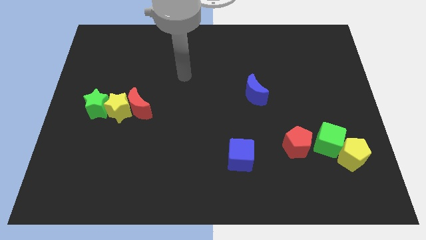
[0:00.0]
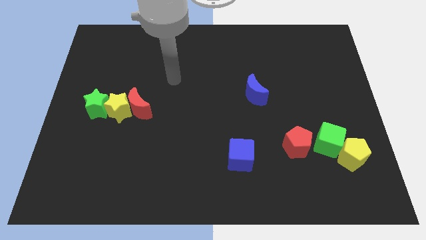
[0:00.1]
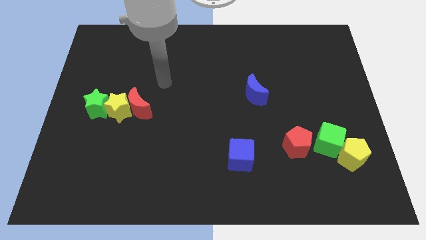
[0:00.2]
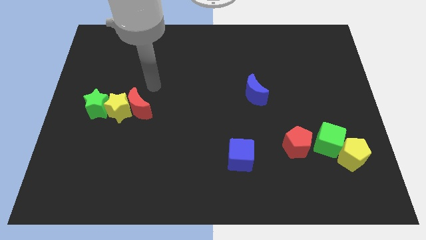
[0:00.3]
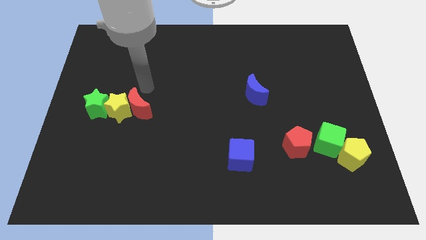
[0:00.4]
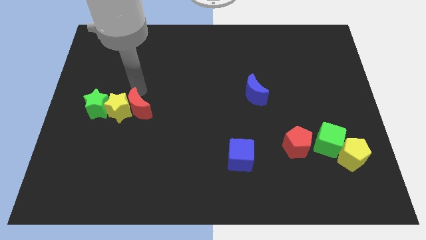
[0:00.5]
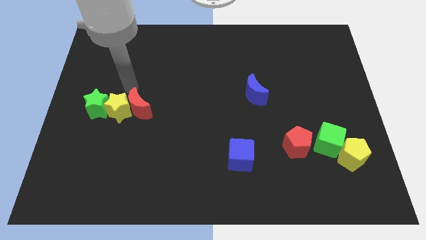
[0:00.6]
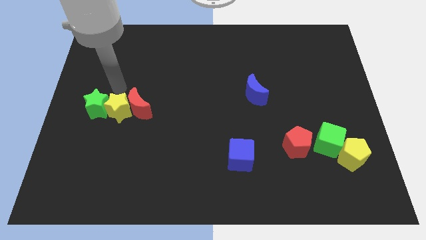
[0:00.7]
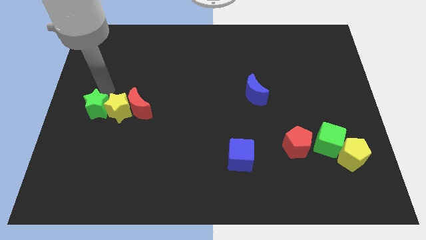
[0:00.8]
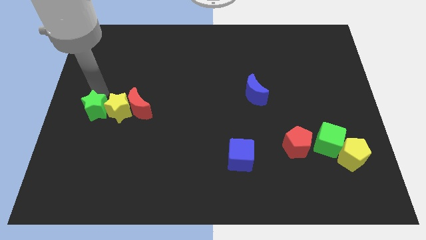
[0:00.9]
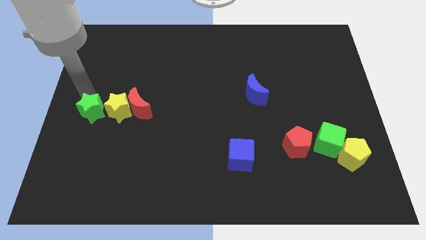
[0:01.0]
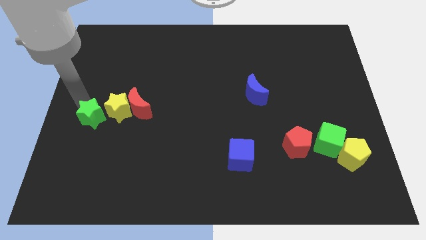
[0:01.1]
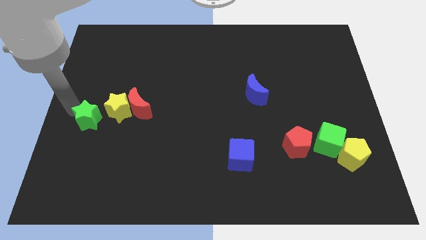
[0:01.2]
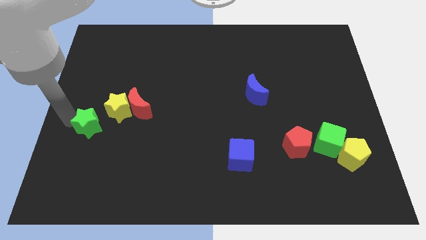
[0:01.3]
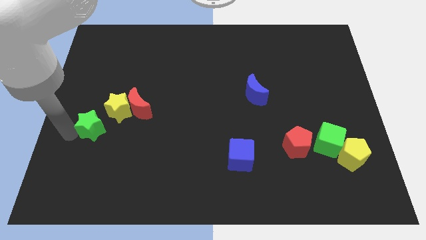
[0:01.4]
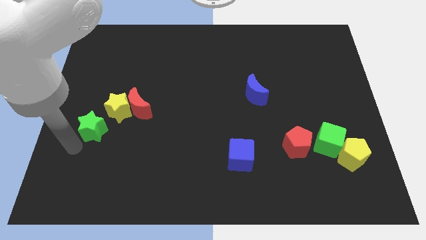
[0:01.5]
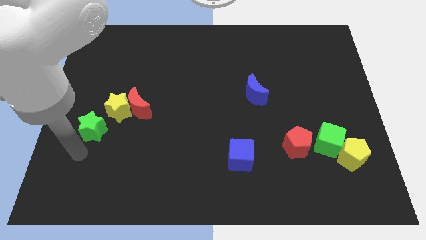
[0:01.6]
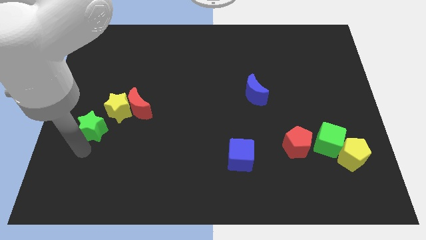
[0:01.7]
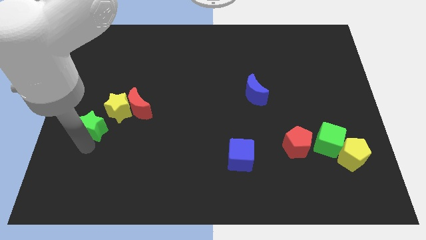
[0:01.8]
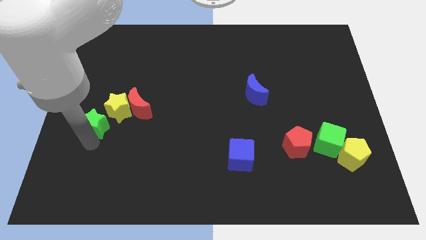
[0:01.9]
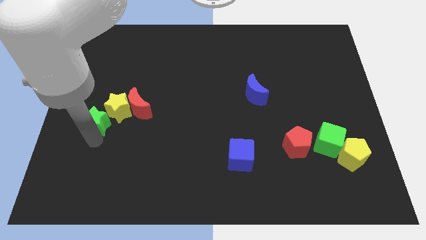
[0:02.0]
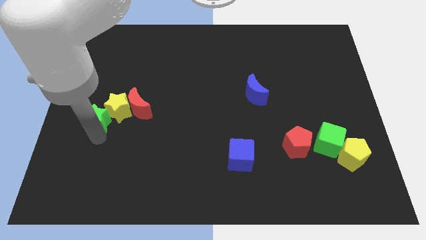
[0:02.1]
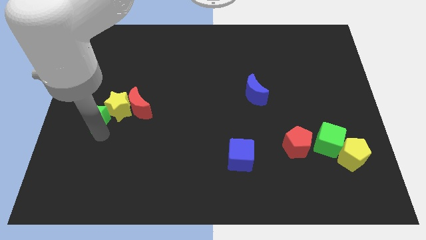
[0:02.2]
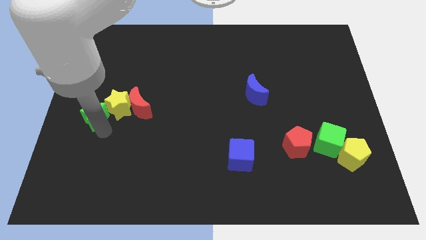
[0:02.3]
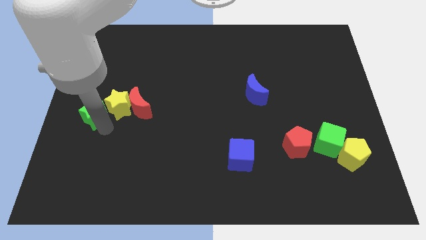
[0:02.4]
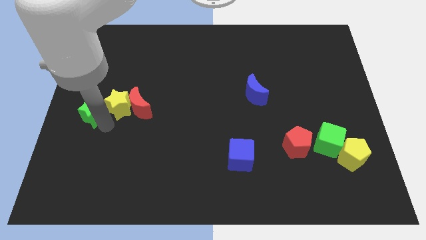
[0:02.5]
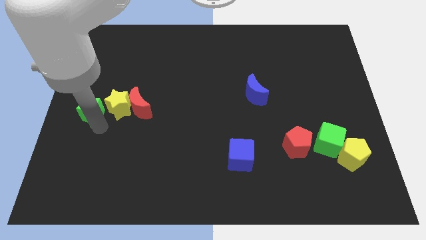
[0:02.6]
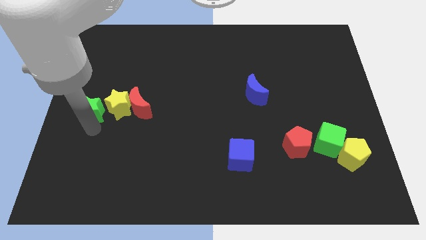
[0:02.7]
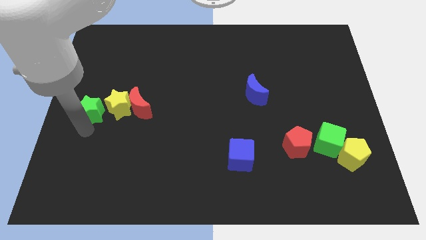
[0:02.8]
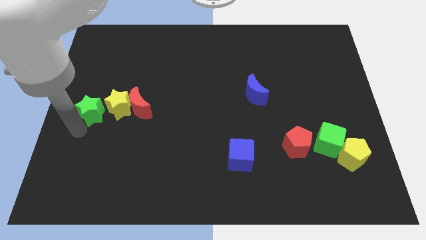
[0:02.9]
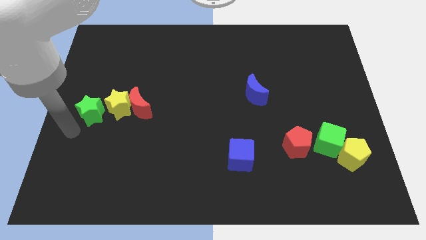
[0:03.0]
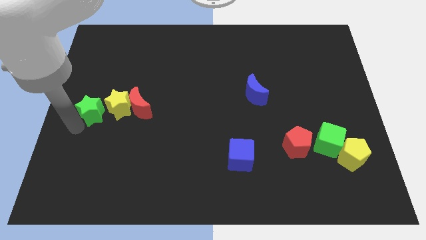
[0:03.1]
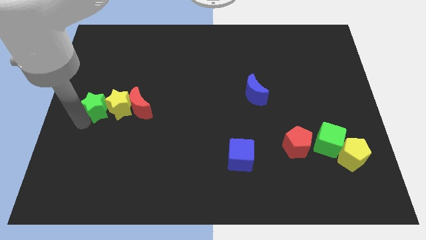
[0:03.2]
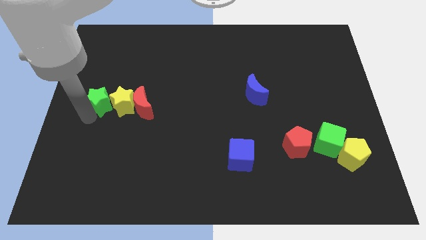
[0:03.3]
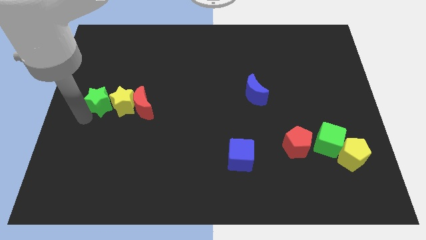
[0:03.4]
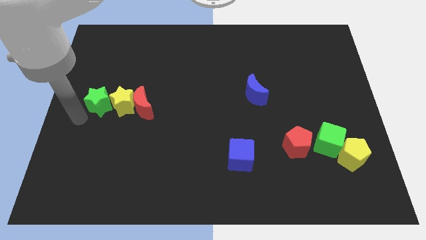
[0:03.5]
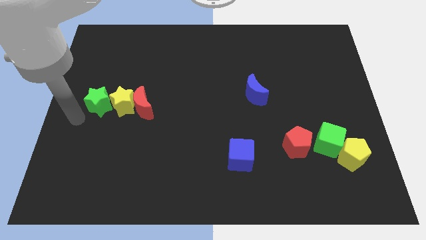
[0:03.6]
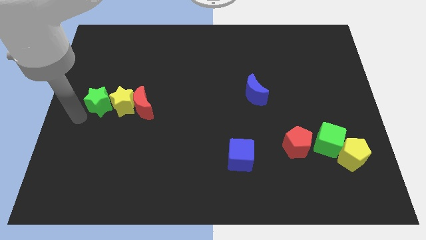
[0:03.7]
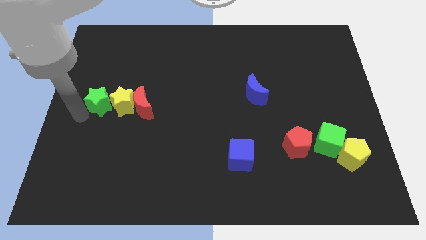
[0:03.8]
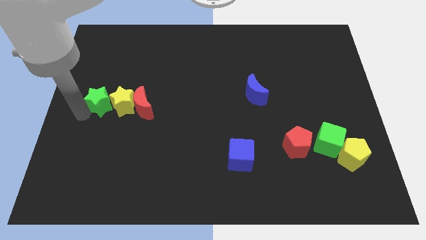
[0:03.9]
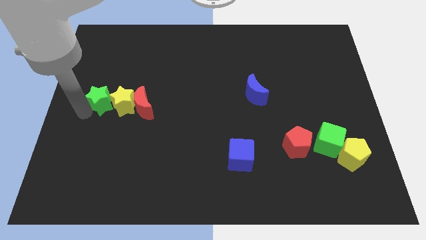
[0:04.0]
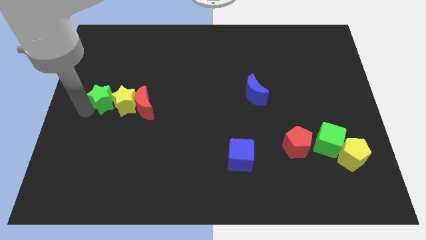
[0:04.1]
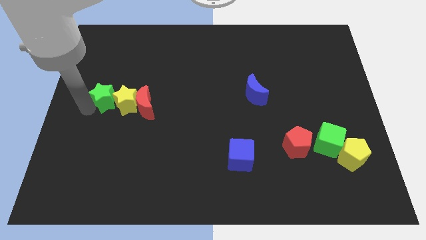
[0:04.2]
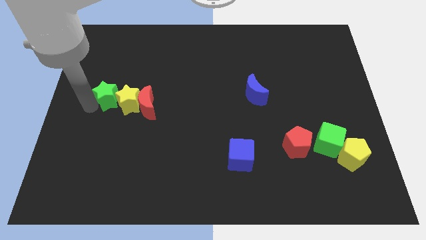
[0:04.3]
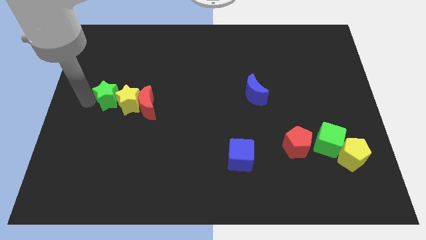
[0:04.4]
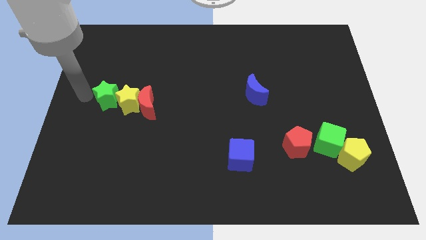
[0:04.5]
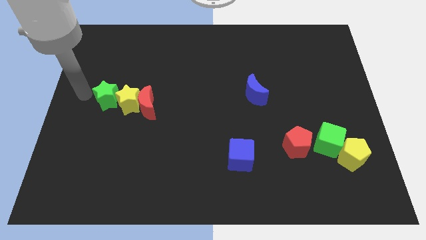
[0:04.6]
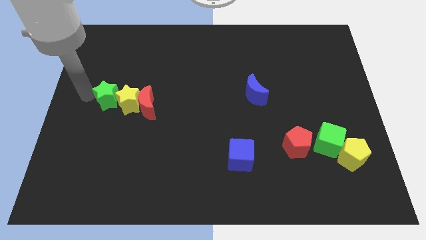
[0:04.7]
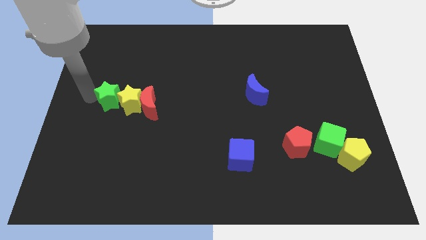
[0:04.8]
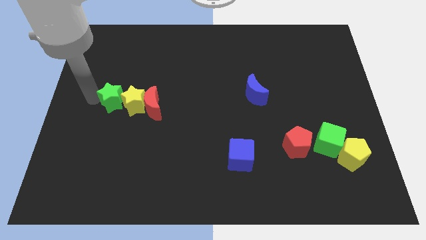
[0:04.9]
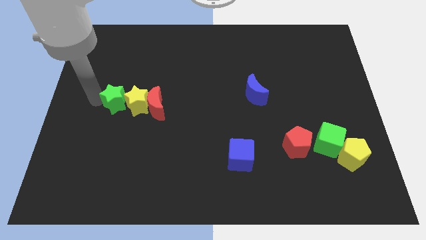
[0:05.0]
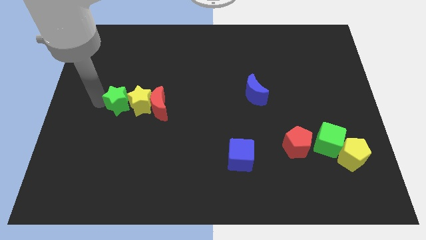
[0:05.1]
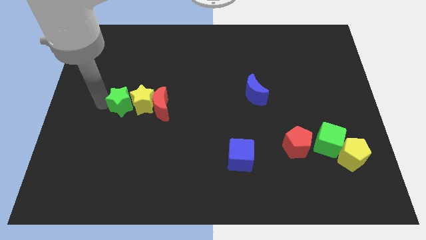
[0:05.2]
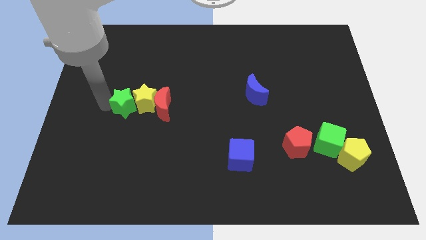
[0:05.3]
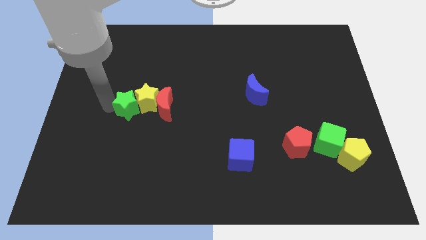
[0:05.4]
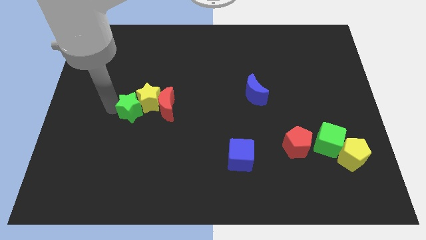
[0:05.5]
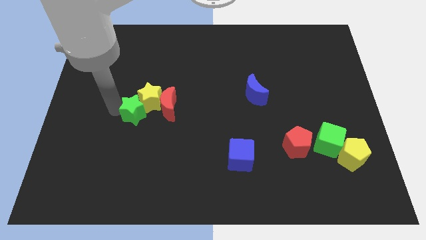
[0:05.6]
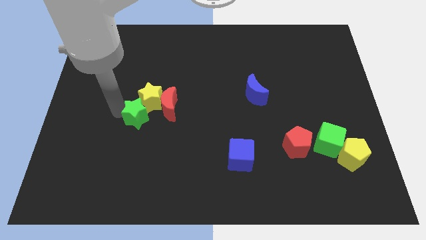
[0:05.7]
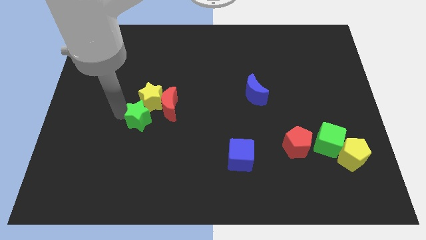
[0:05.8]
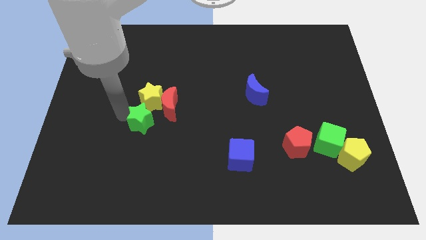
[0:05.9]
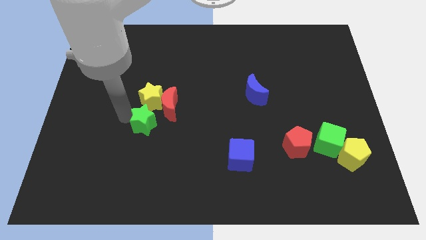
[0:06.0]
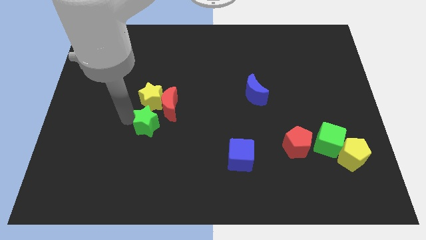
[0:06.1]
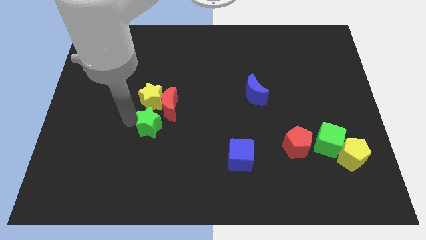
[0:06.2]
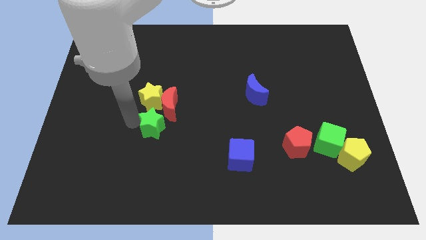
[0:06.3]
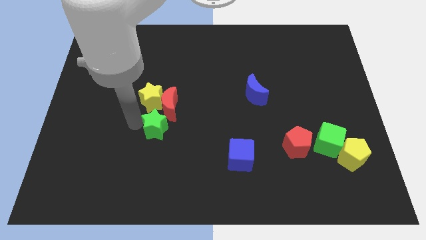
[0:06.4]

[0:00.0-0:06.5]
put the green star close to the red moon
